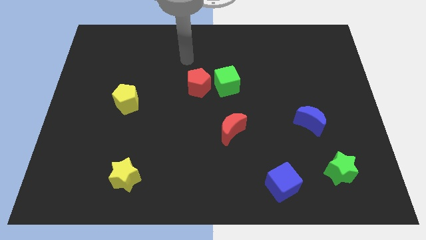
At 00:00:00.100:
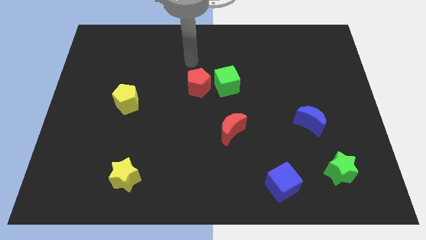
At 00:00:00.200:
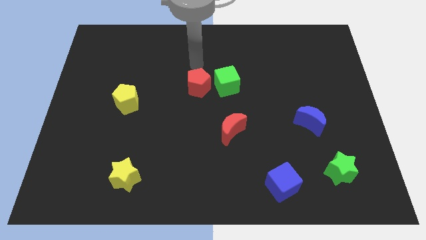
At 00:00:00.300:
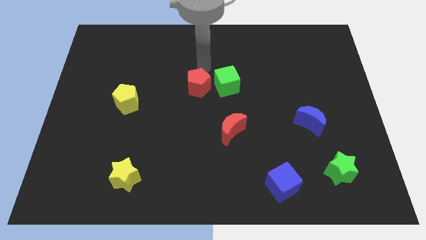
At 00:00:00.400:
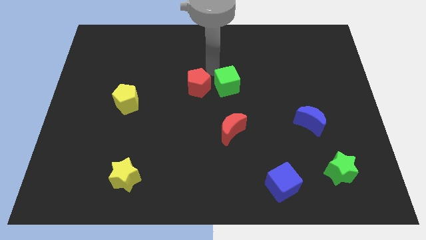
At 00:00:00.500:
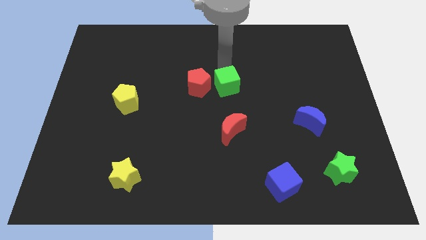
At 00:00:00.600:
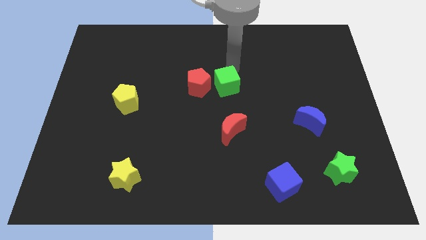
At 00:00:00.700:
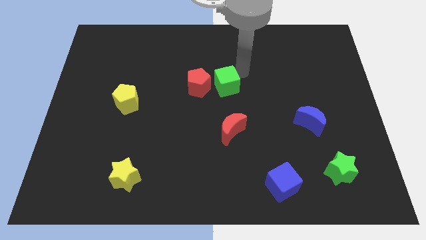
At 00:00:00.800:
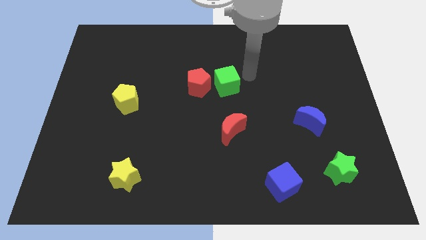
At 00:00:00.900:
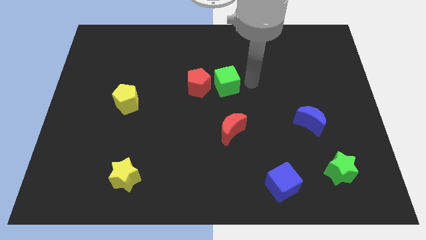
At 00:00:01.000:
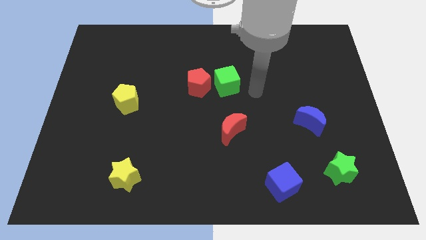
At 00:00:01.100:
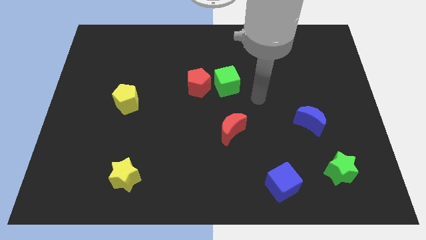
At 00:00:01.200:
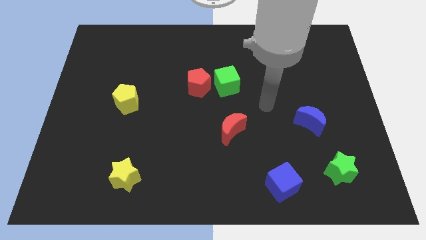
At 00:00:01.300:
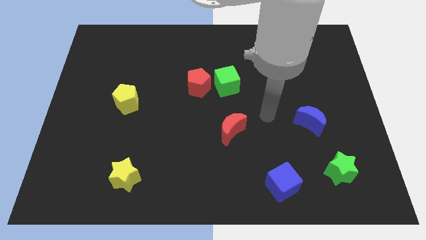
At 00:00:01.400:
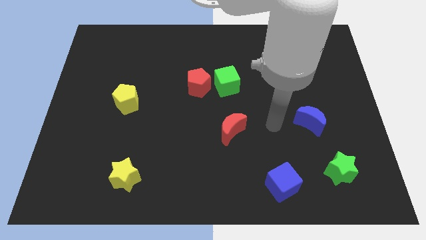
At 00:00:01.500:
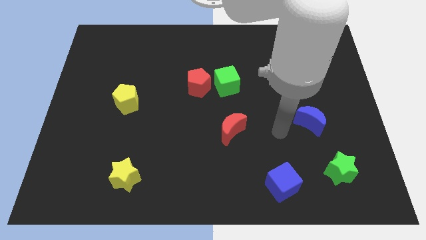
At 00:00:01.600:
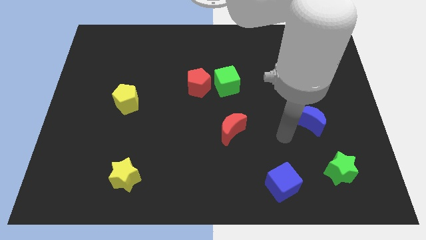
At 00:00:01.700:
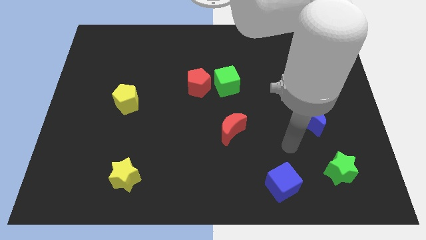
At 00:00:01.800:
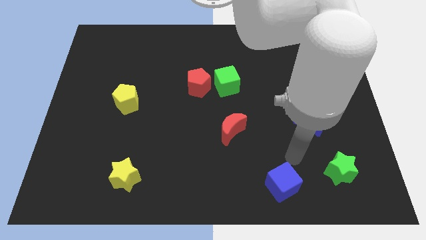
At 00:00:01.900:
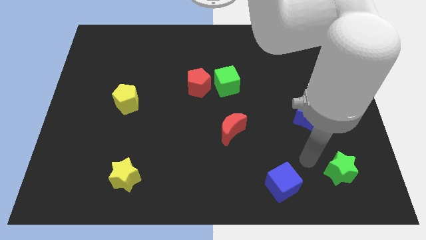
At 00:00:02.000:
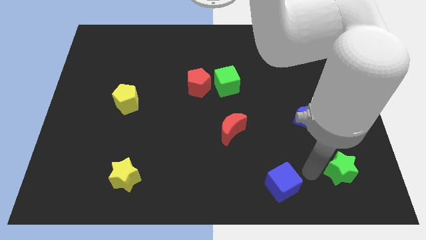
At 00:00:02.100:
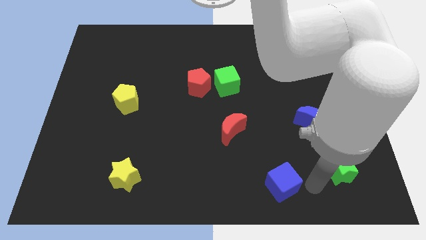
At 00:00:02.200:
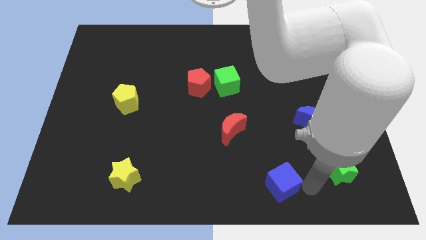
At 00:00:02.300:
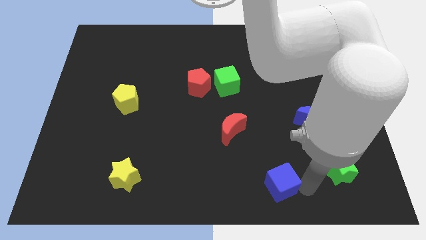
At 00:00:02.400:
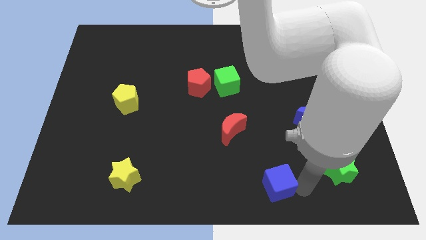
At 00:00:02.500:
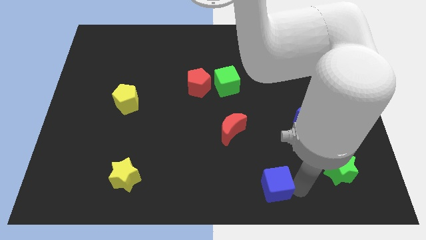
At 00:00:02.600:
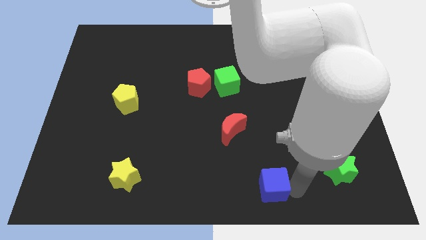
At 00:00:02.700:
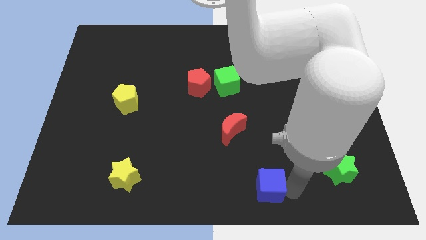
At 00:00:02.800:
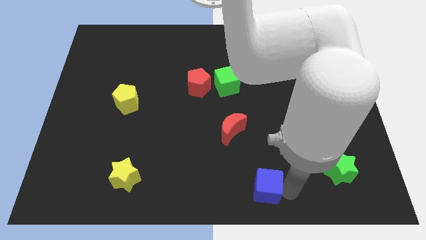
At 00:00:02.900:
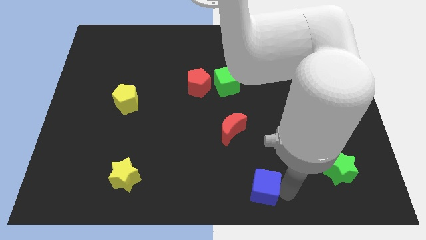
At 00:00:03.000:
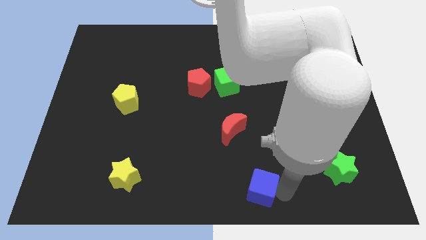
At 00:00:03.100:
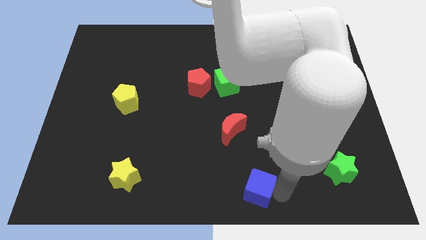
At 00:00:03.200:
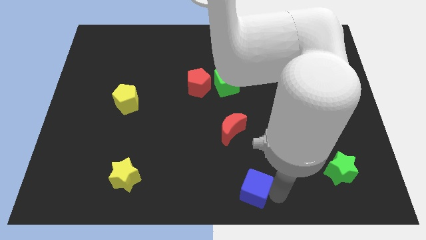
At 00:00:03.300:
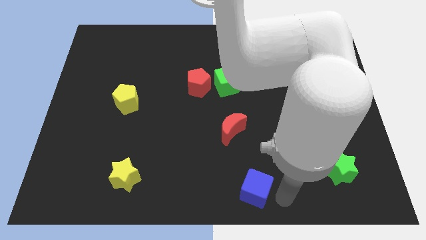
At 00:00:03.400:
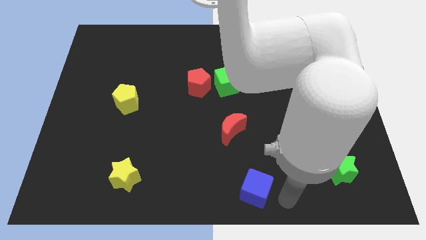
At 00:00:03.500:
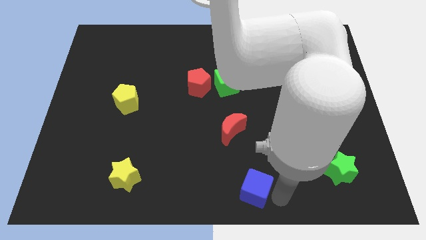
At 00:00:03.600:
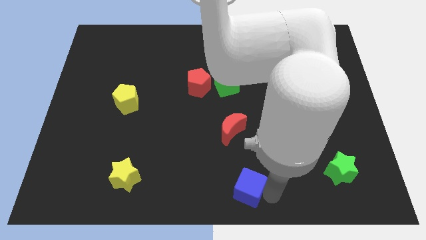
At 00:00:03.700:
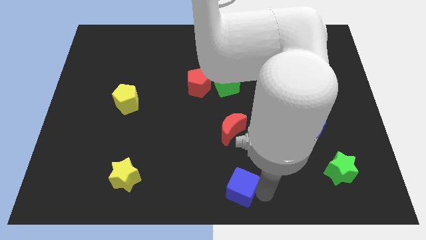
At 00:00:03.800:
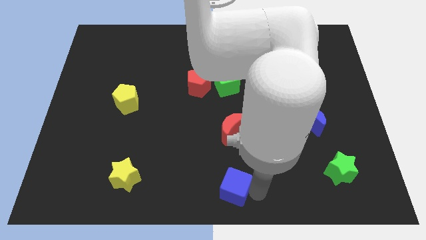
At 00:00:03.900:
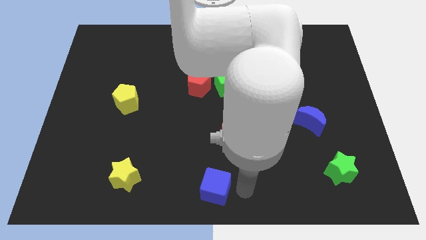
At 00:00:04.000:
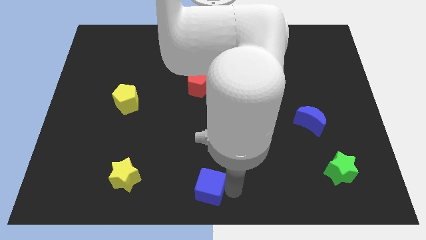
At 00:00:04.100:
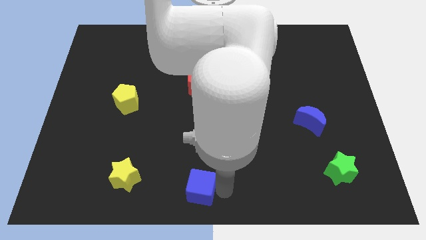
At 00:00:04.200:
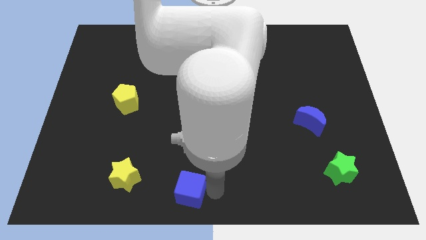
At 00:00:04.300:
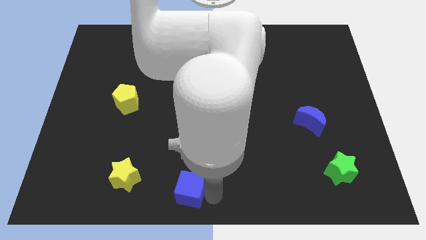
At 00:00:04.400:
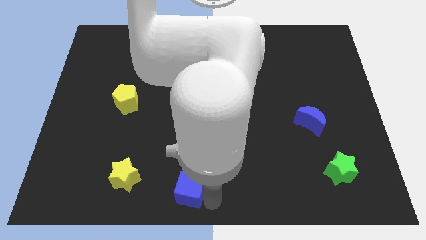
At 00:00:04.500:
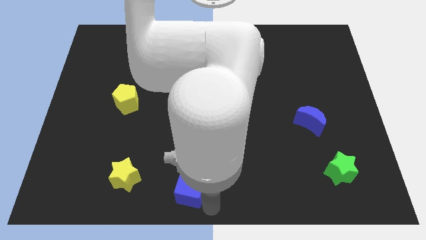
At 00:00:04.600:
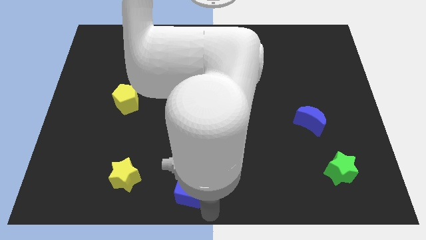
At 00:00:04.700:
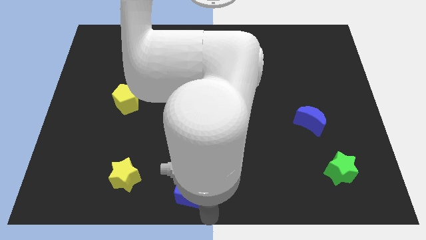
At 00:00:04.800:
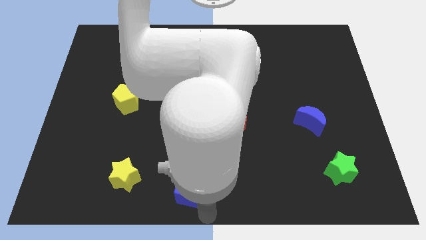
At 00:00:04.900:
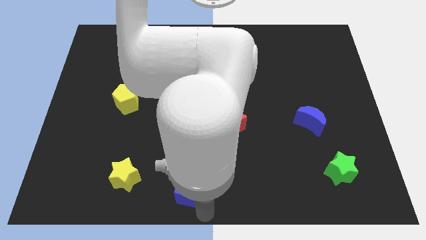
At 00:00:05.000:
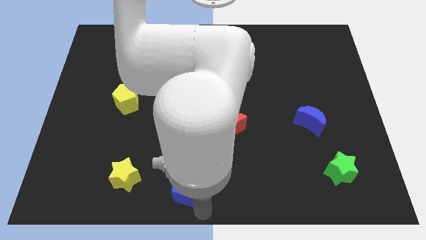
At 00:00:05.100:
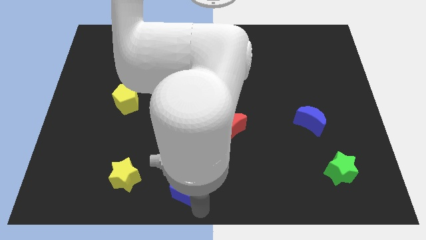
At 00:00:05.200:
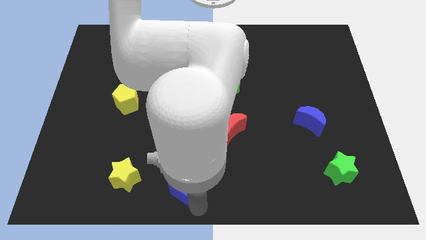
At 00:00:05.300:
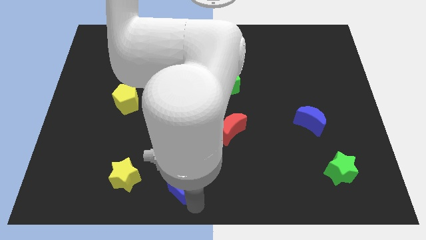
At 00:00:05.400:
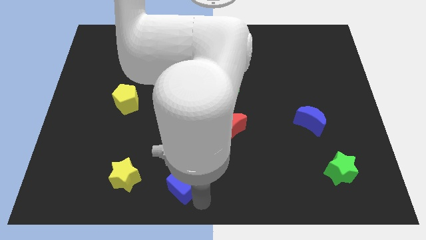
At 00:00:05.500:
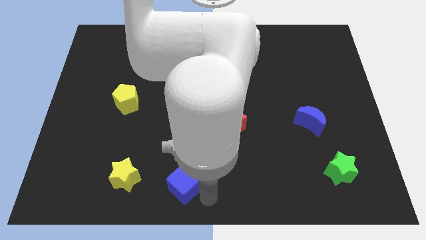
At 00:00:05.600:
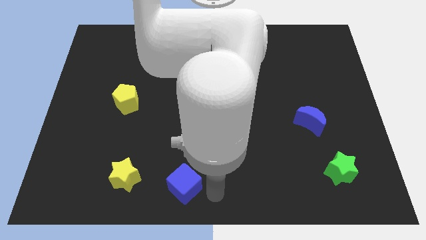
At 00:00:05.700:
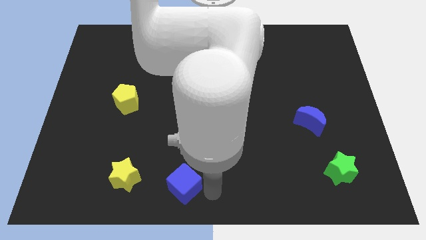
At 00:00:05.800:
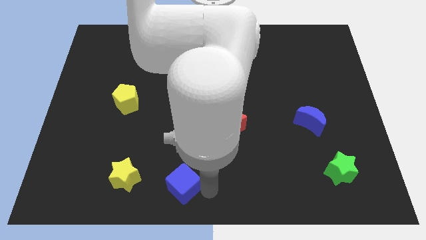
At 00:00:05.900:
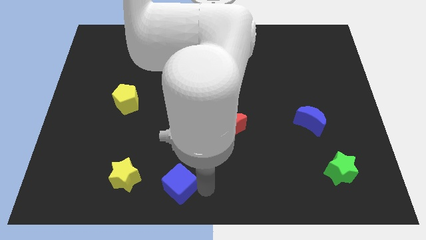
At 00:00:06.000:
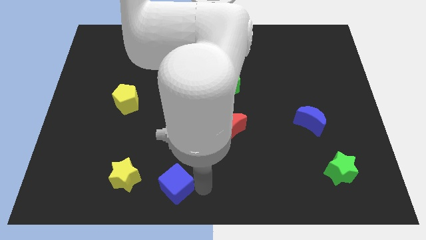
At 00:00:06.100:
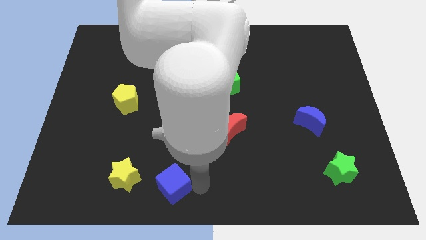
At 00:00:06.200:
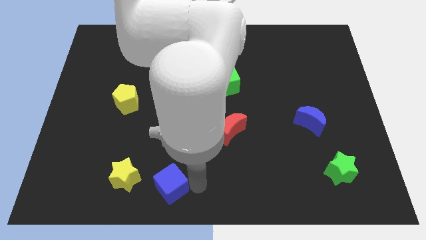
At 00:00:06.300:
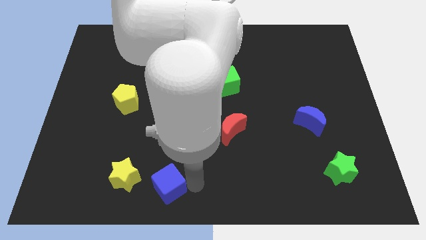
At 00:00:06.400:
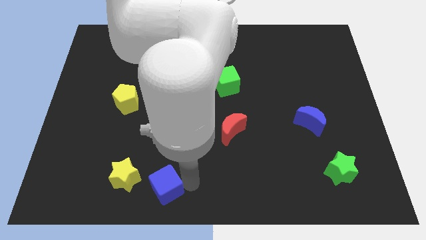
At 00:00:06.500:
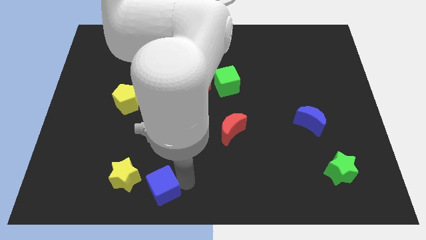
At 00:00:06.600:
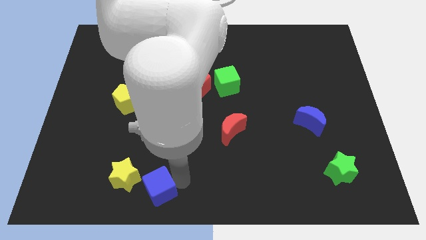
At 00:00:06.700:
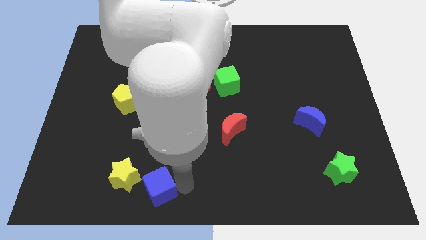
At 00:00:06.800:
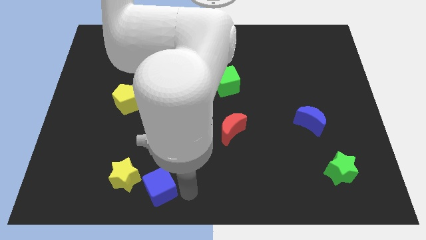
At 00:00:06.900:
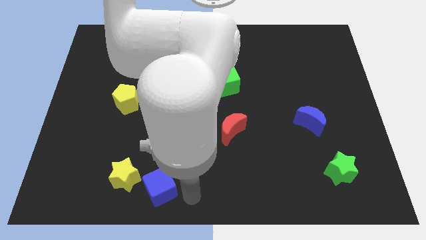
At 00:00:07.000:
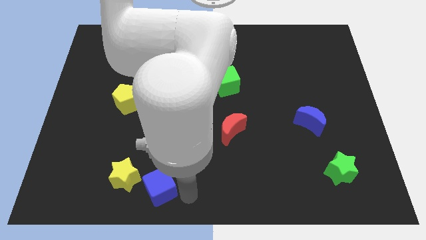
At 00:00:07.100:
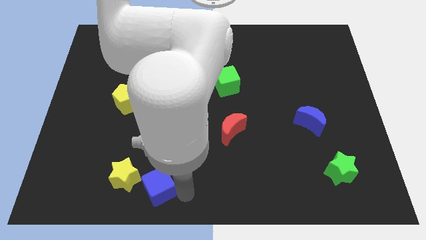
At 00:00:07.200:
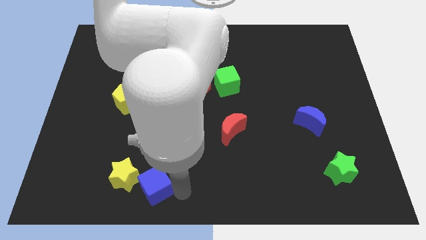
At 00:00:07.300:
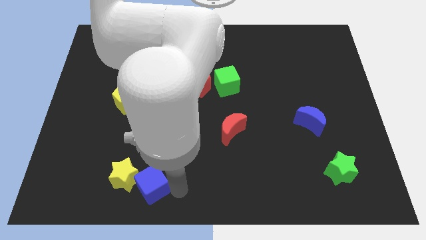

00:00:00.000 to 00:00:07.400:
move the blue cube to the yellow star
